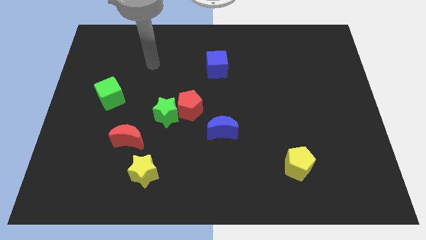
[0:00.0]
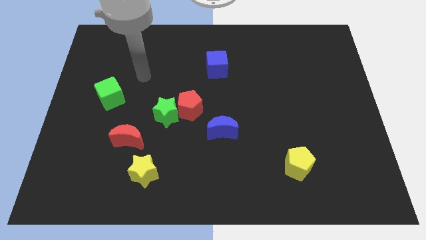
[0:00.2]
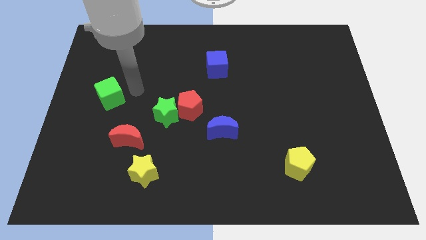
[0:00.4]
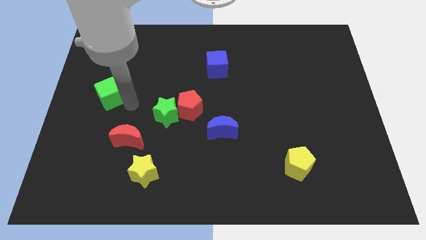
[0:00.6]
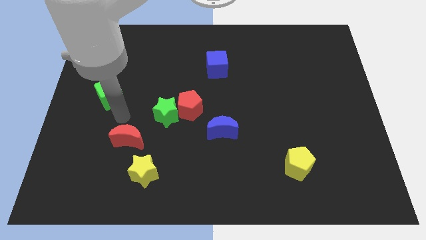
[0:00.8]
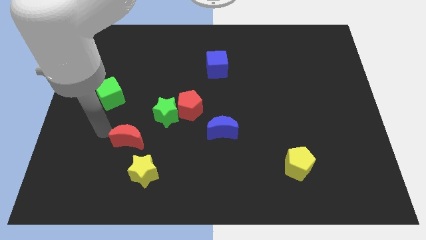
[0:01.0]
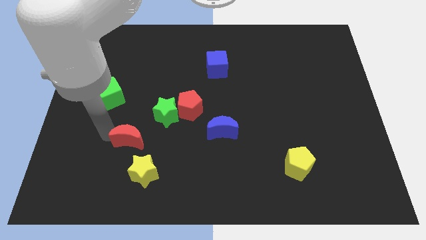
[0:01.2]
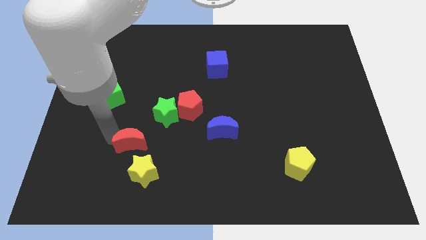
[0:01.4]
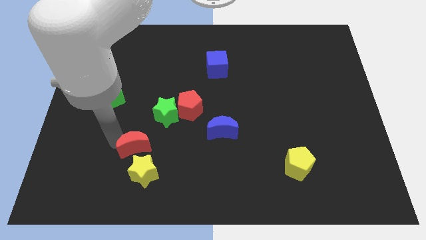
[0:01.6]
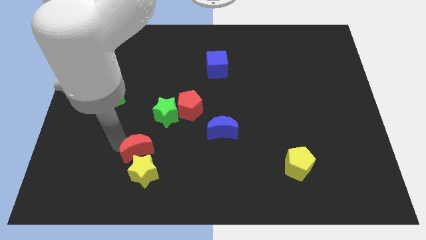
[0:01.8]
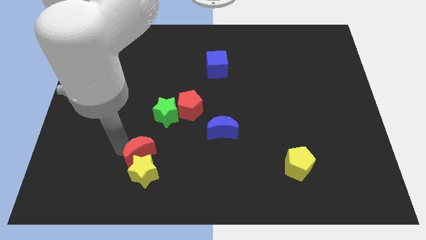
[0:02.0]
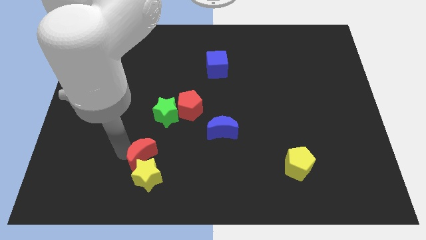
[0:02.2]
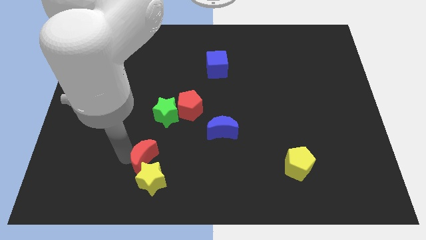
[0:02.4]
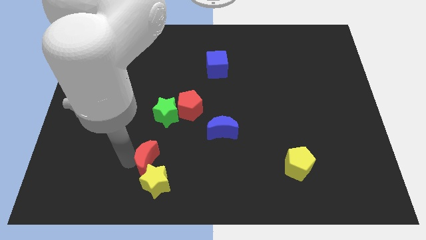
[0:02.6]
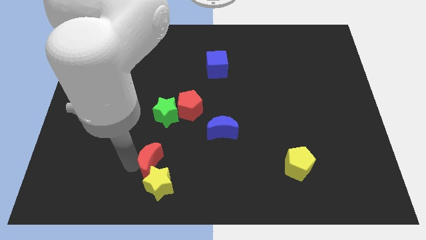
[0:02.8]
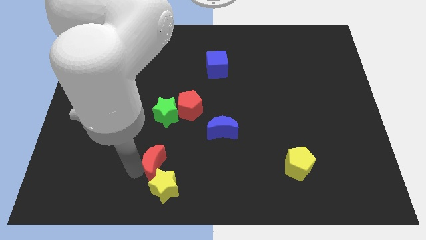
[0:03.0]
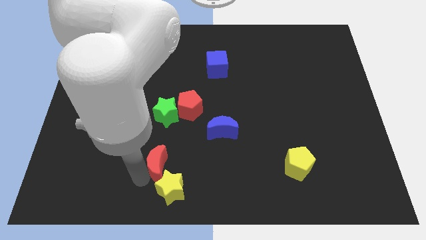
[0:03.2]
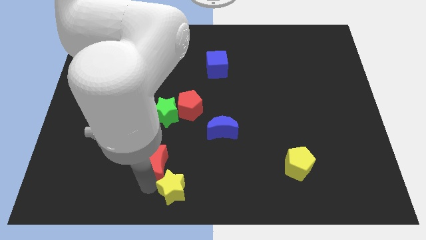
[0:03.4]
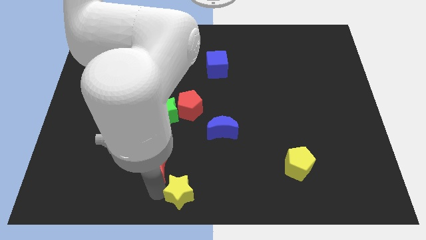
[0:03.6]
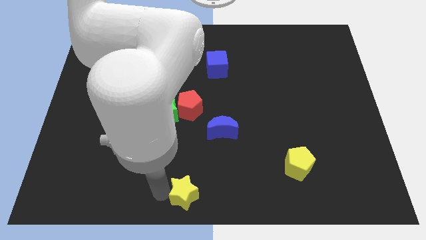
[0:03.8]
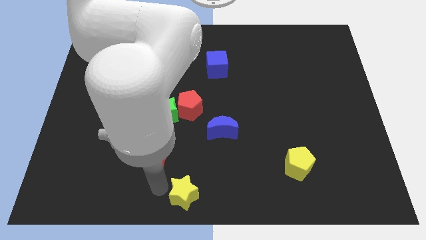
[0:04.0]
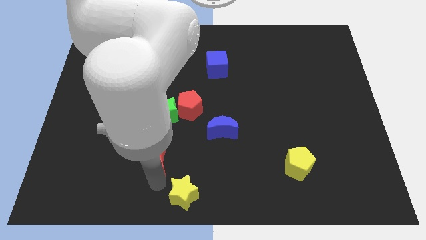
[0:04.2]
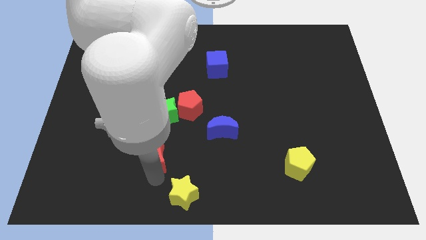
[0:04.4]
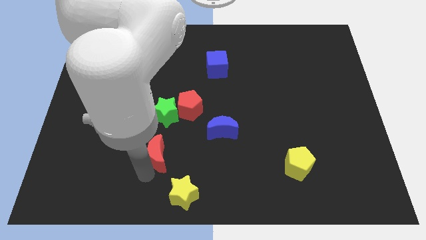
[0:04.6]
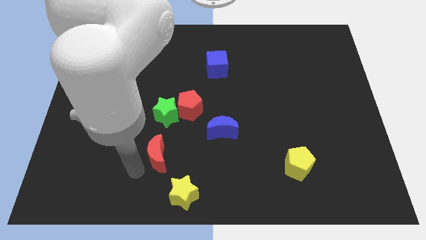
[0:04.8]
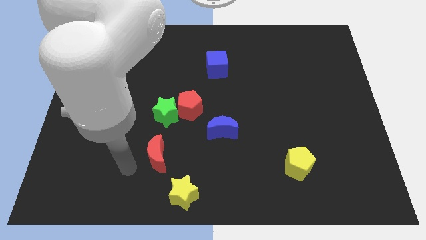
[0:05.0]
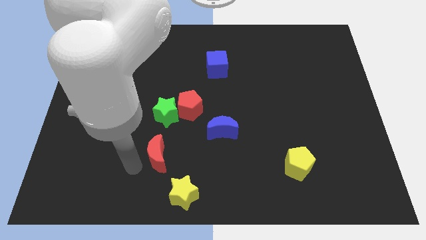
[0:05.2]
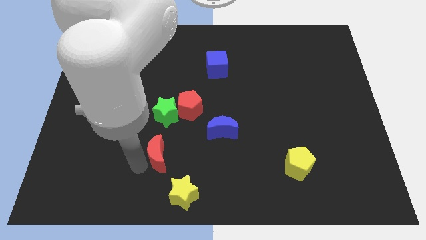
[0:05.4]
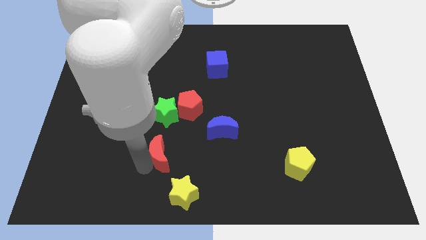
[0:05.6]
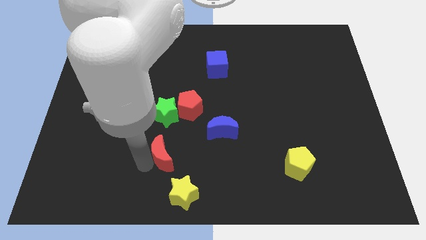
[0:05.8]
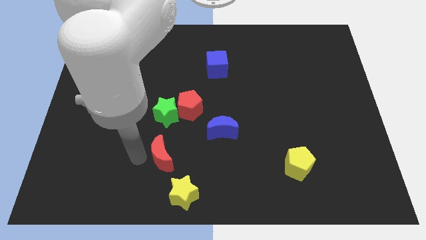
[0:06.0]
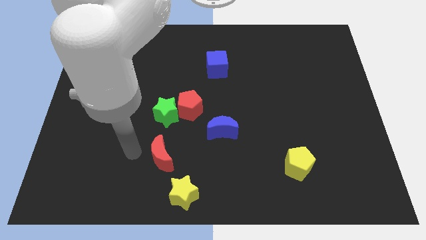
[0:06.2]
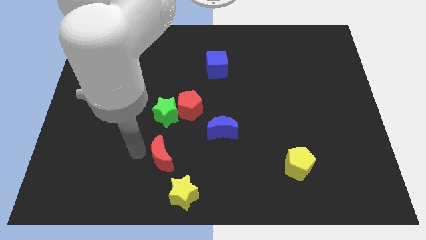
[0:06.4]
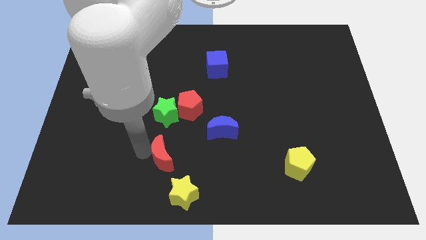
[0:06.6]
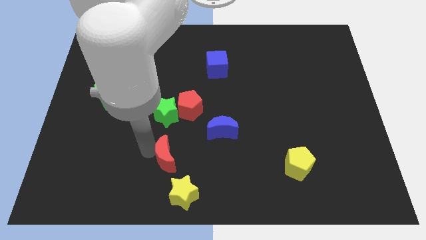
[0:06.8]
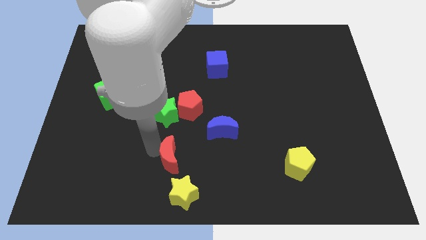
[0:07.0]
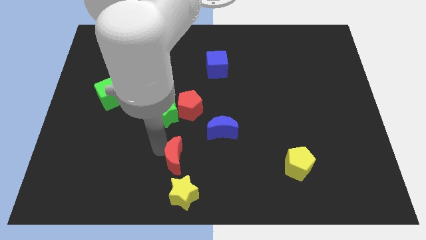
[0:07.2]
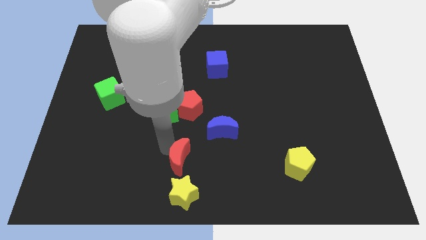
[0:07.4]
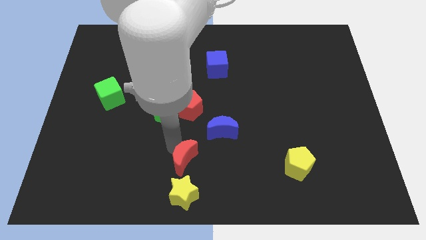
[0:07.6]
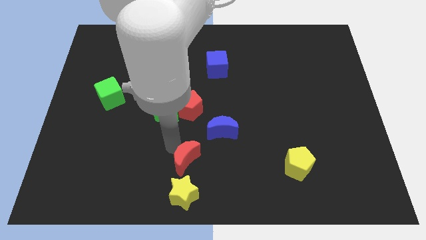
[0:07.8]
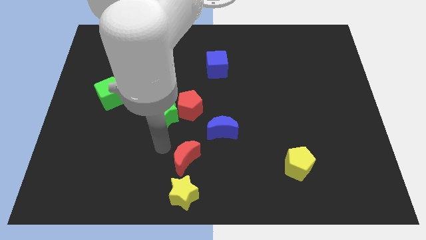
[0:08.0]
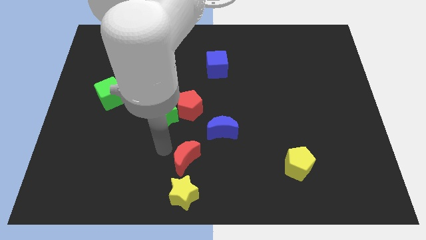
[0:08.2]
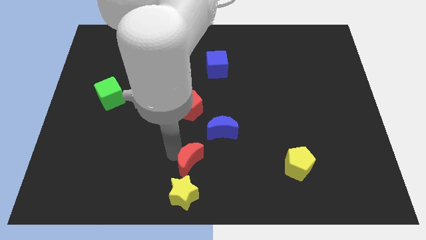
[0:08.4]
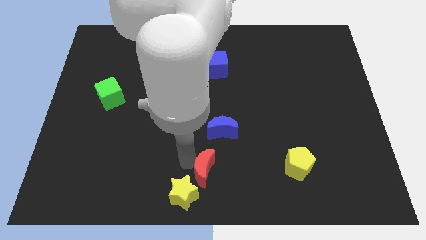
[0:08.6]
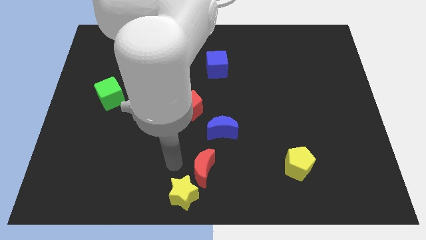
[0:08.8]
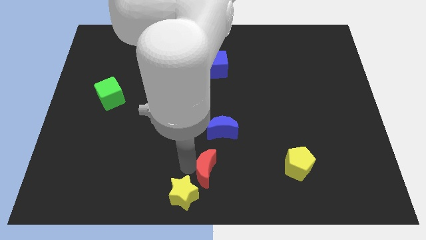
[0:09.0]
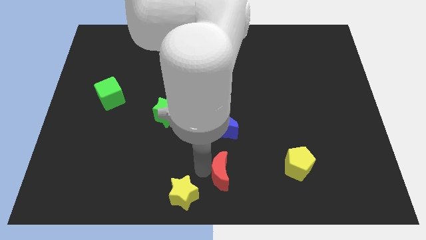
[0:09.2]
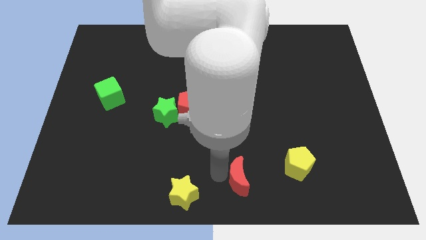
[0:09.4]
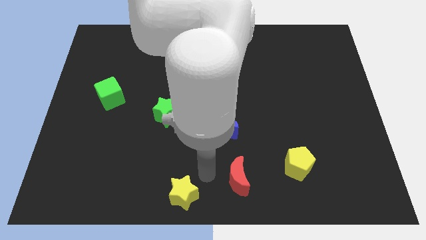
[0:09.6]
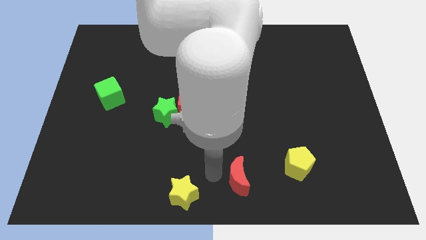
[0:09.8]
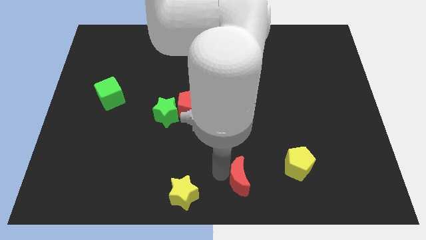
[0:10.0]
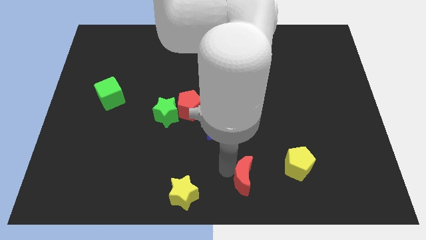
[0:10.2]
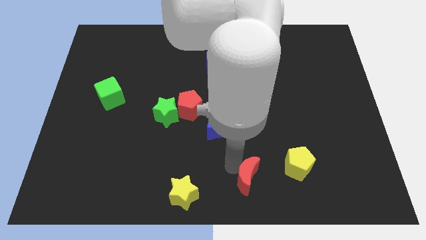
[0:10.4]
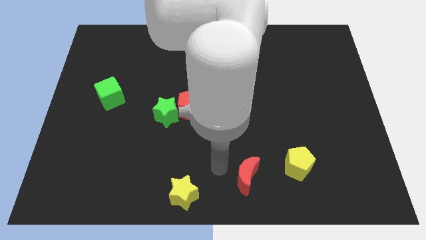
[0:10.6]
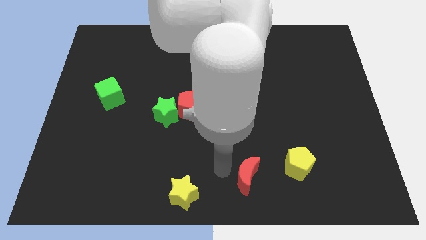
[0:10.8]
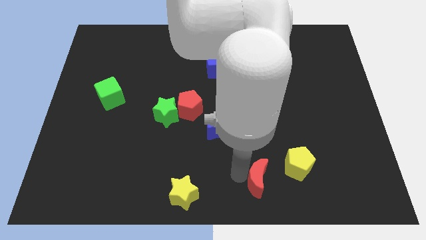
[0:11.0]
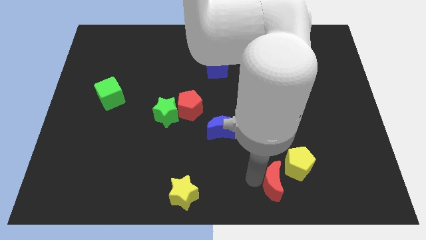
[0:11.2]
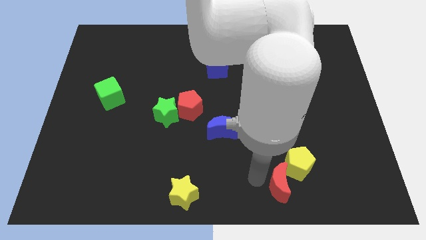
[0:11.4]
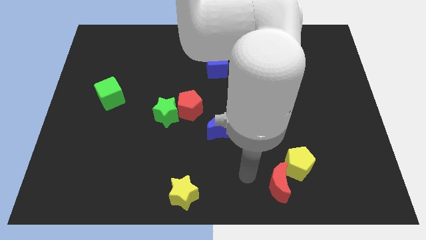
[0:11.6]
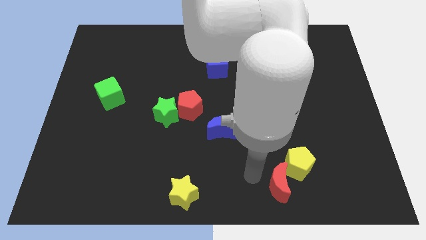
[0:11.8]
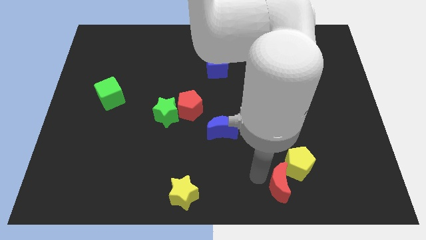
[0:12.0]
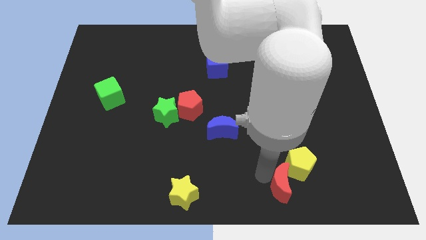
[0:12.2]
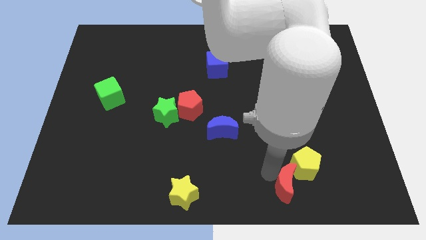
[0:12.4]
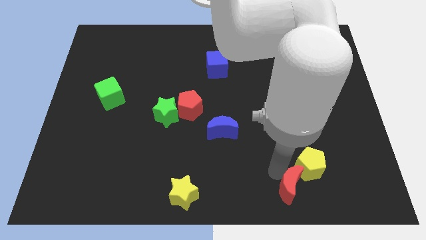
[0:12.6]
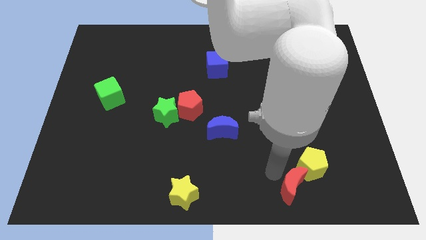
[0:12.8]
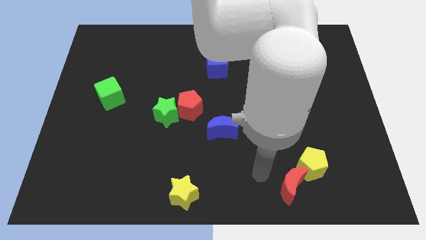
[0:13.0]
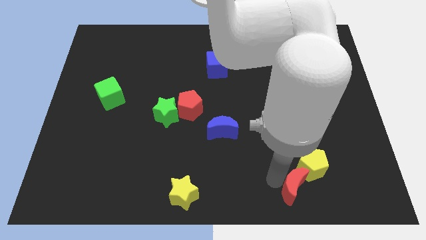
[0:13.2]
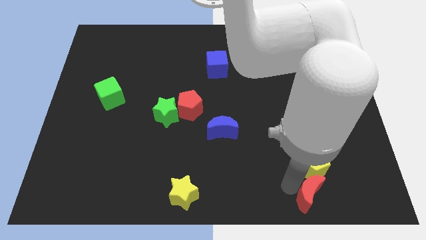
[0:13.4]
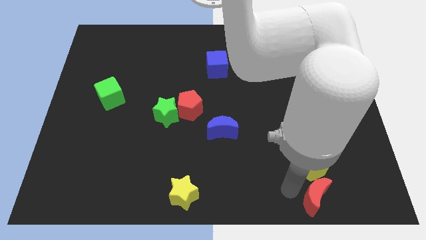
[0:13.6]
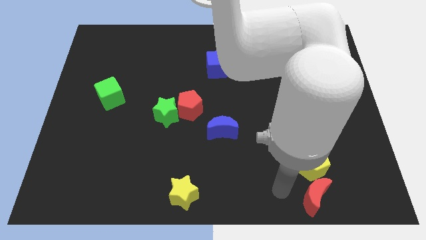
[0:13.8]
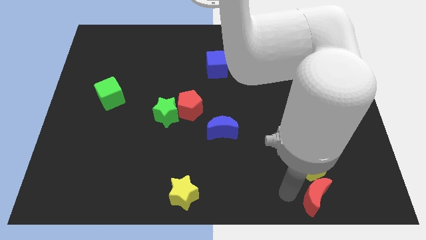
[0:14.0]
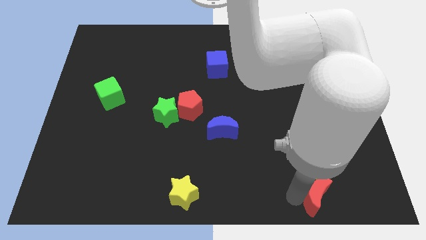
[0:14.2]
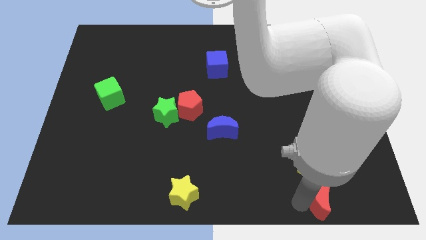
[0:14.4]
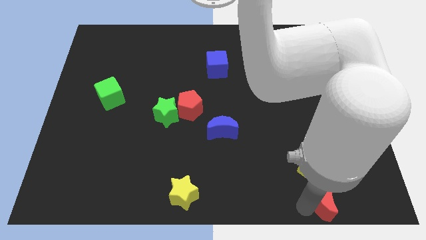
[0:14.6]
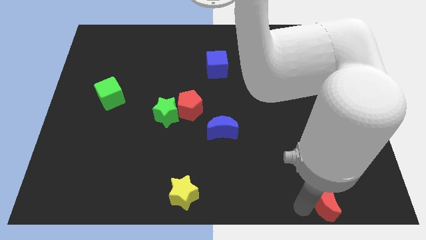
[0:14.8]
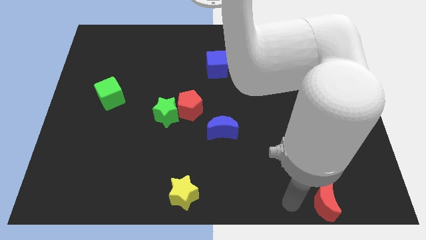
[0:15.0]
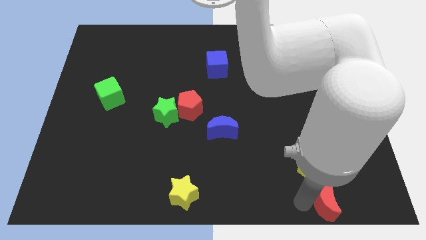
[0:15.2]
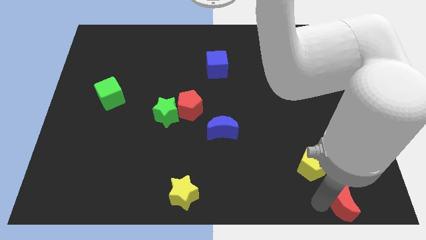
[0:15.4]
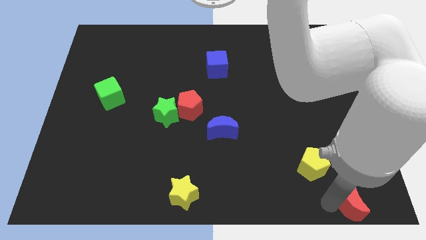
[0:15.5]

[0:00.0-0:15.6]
slide the red moon to the bottom right
